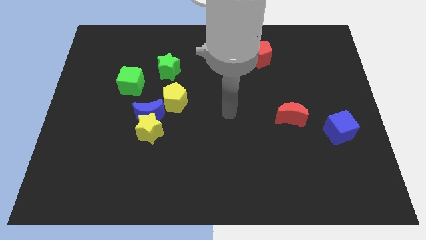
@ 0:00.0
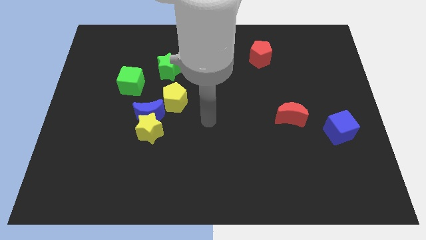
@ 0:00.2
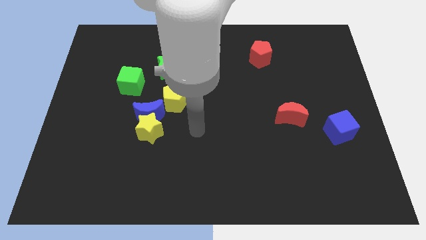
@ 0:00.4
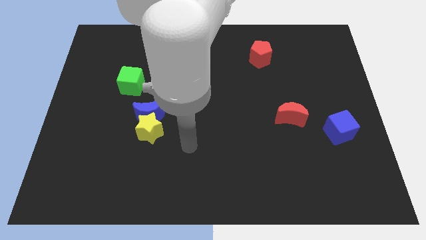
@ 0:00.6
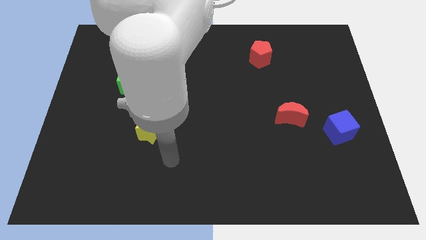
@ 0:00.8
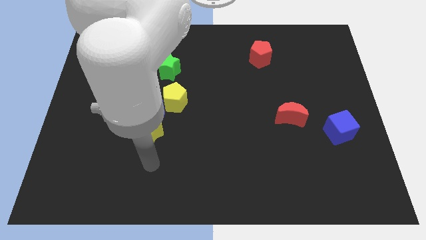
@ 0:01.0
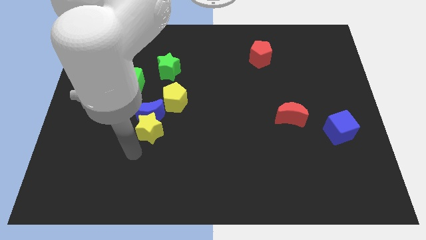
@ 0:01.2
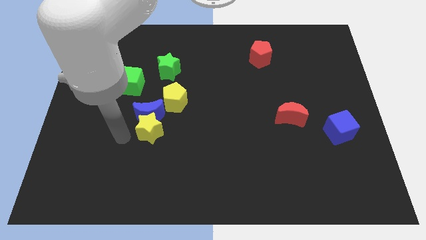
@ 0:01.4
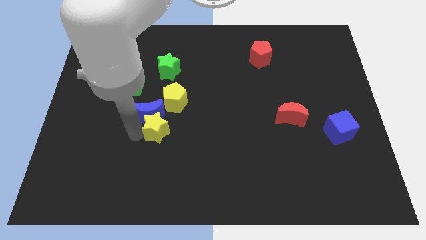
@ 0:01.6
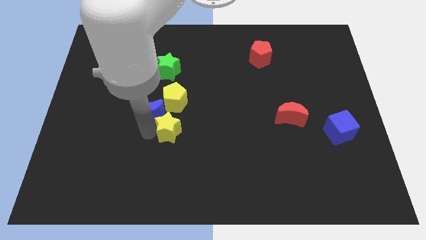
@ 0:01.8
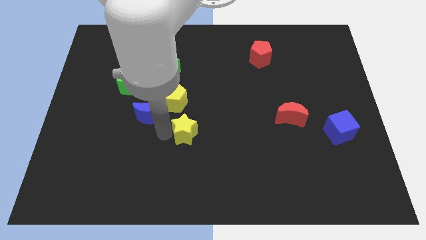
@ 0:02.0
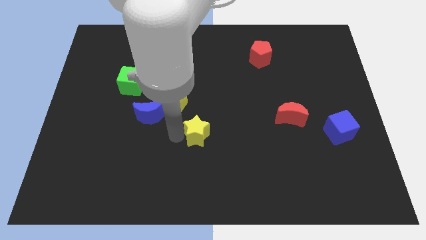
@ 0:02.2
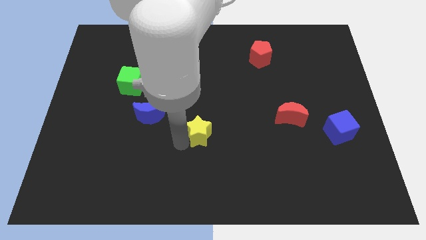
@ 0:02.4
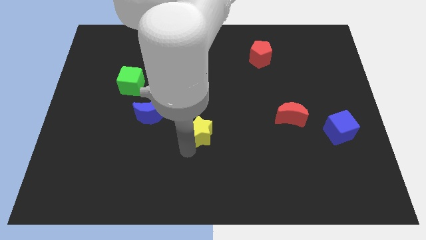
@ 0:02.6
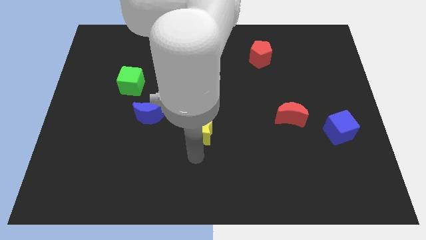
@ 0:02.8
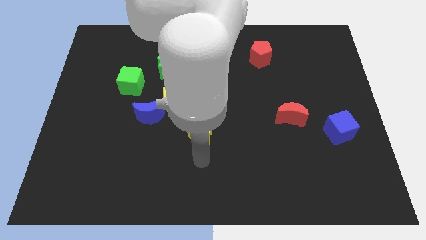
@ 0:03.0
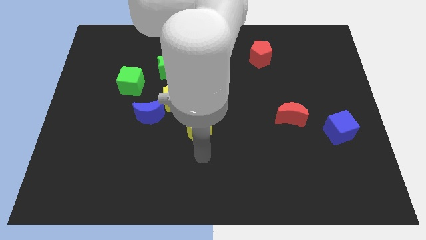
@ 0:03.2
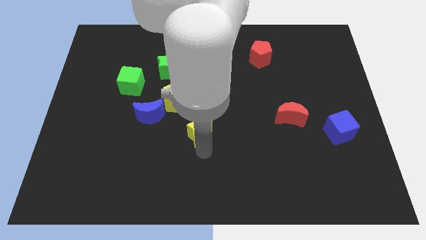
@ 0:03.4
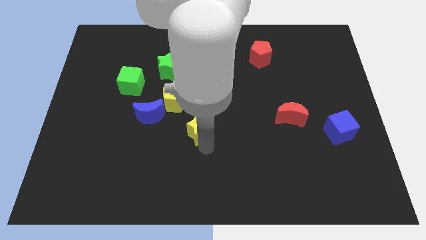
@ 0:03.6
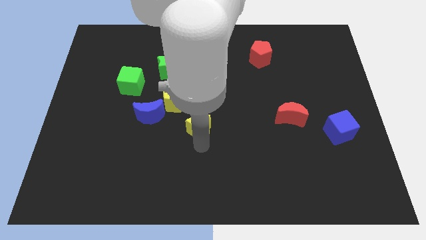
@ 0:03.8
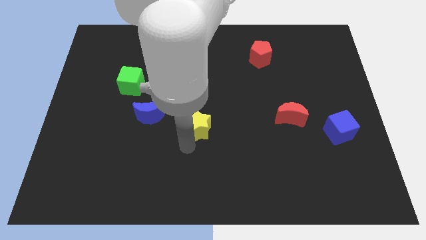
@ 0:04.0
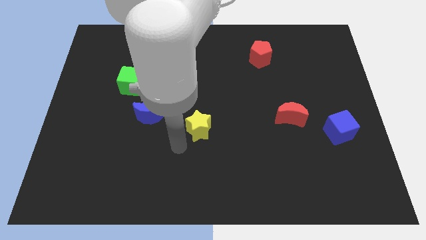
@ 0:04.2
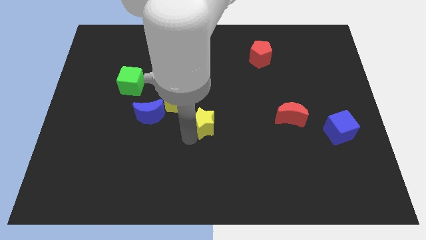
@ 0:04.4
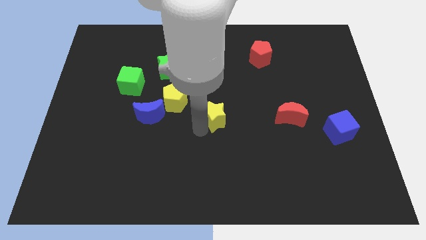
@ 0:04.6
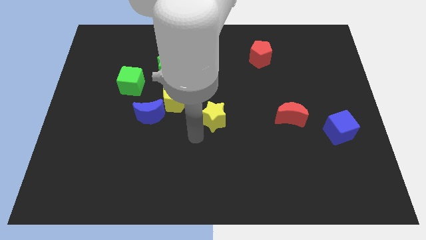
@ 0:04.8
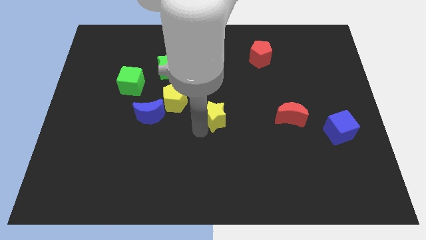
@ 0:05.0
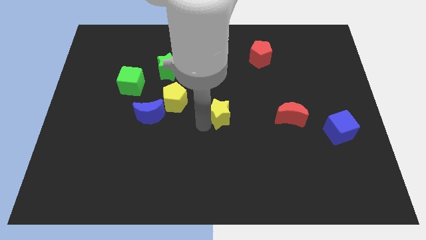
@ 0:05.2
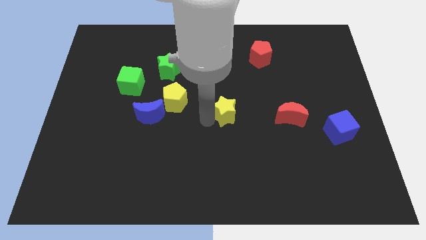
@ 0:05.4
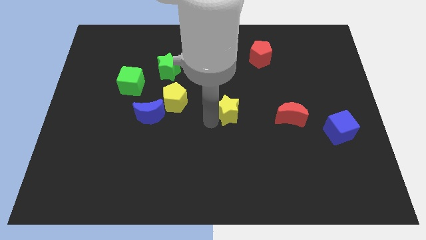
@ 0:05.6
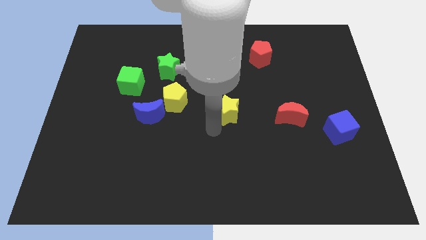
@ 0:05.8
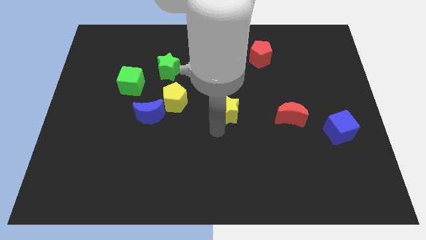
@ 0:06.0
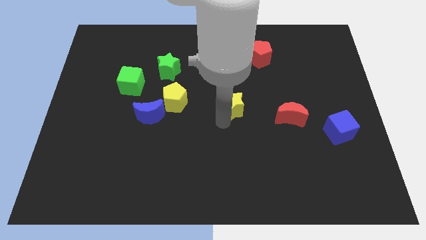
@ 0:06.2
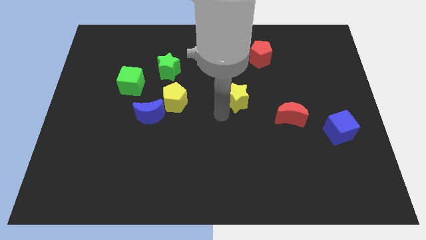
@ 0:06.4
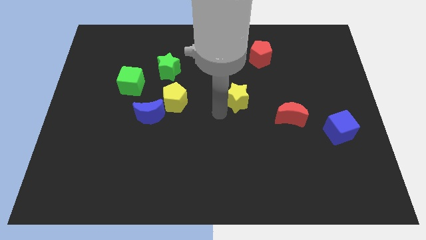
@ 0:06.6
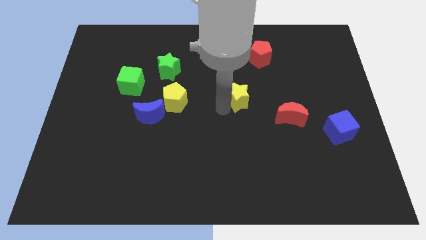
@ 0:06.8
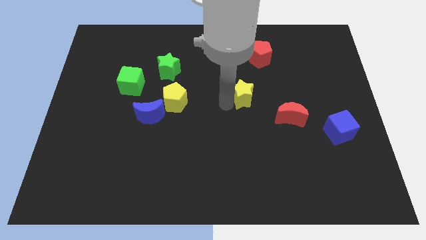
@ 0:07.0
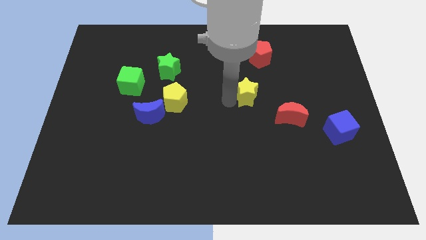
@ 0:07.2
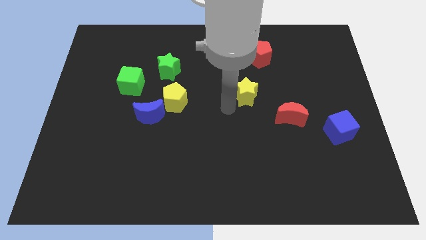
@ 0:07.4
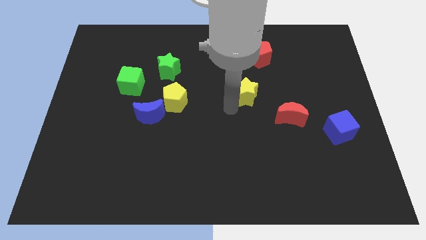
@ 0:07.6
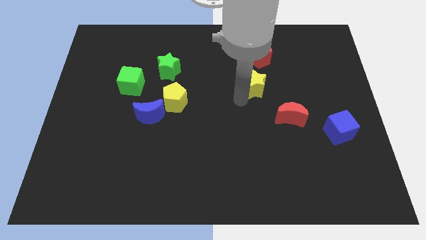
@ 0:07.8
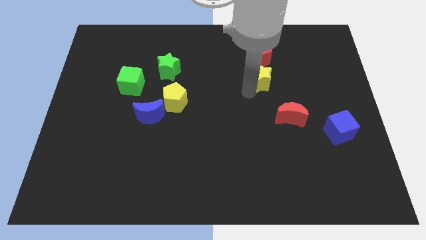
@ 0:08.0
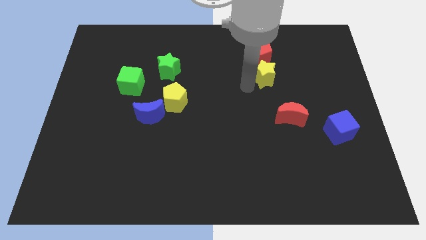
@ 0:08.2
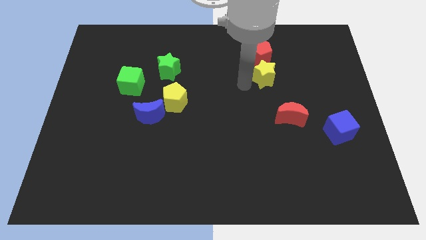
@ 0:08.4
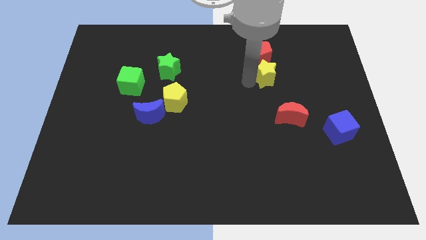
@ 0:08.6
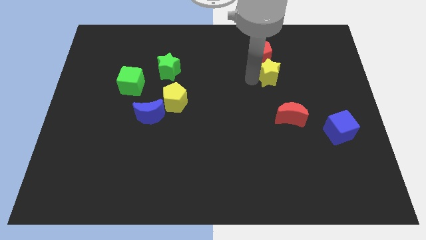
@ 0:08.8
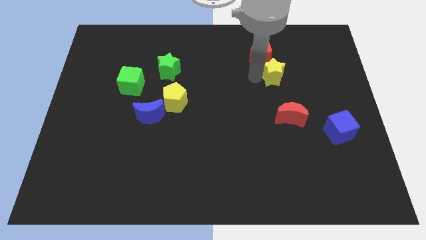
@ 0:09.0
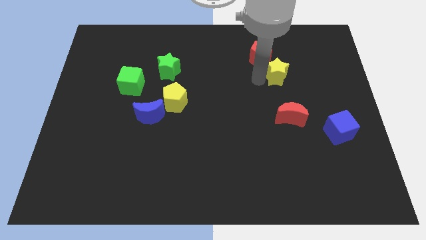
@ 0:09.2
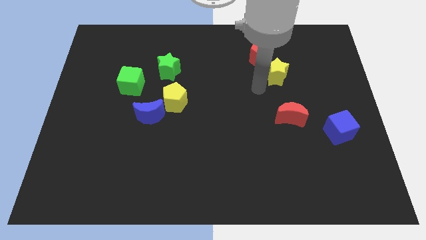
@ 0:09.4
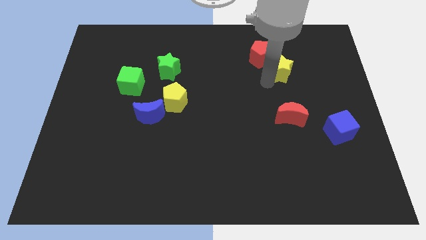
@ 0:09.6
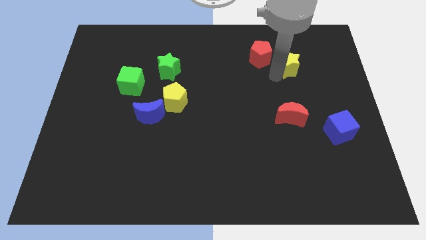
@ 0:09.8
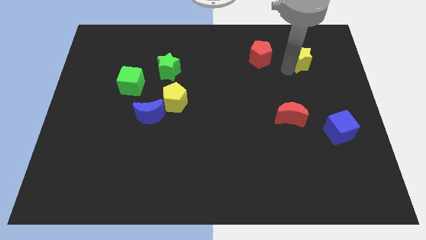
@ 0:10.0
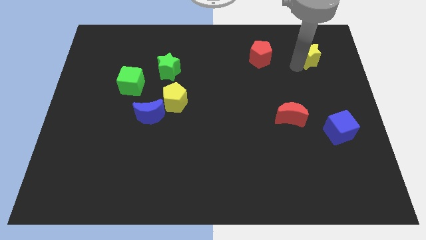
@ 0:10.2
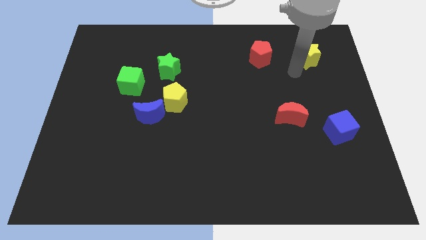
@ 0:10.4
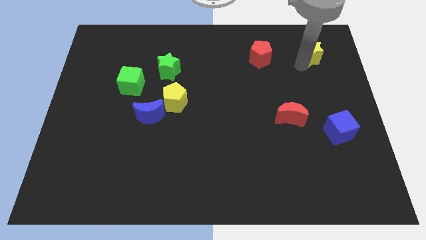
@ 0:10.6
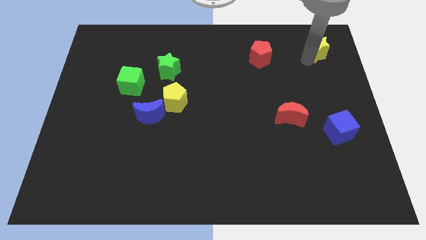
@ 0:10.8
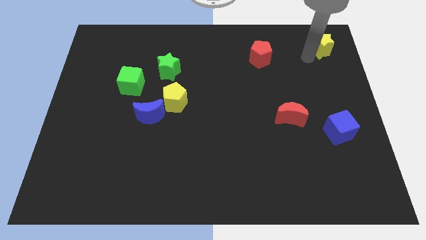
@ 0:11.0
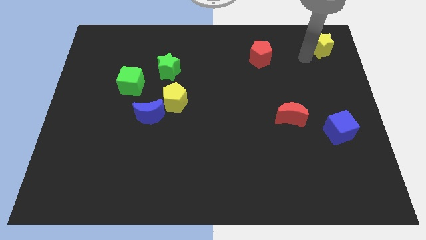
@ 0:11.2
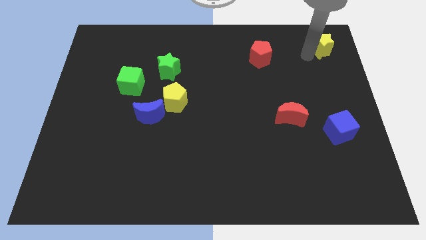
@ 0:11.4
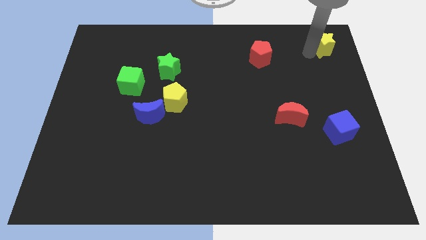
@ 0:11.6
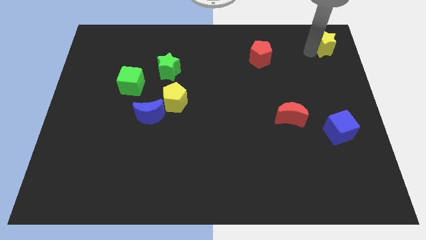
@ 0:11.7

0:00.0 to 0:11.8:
push the yellow star to the upper right corner
